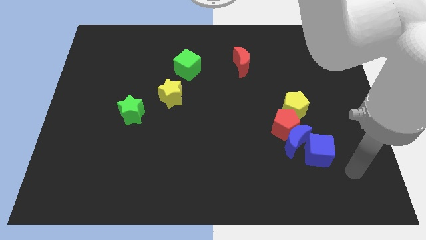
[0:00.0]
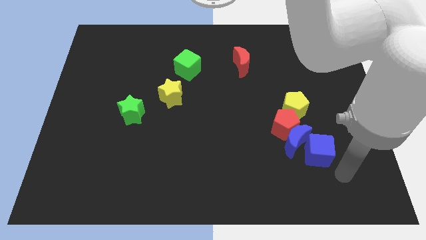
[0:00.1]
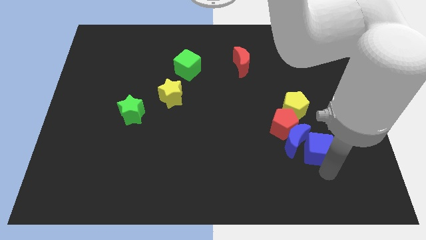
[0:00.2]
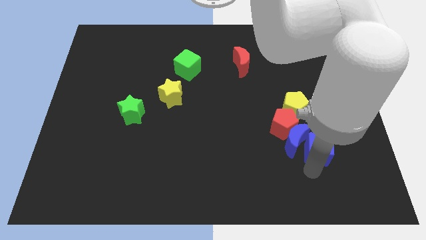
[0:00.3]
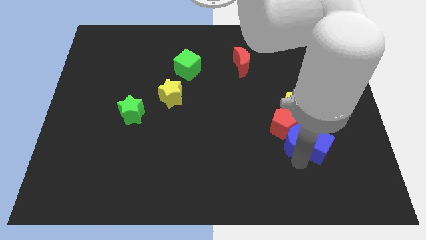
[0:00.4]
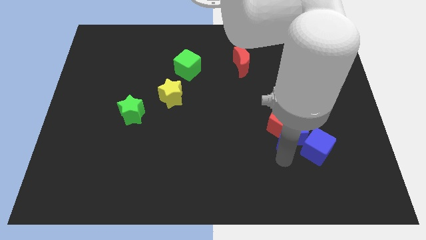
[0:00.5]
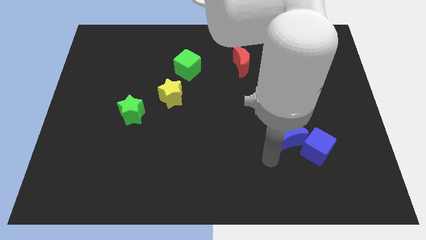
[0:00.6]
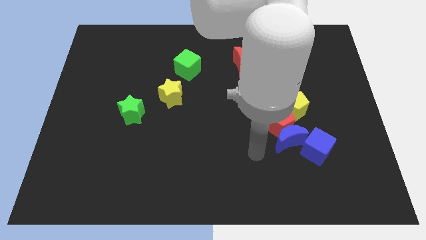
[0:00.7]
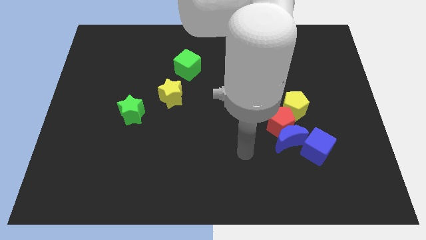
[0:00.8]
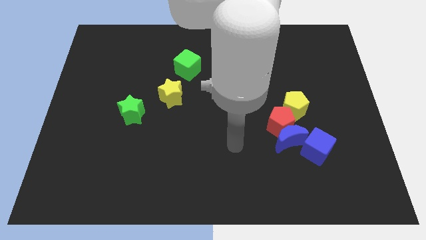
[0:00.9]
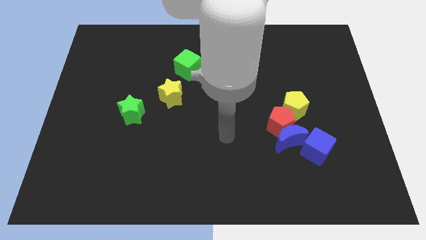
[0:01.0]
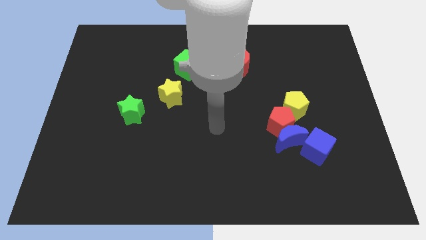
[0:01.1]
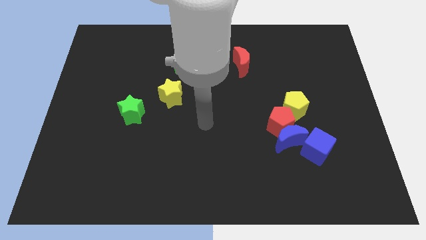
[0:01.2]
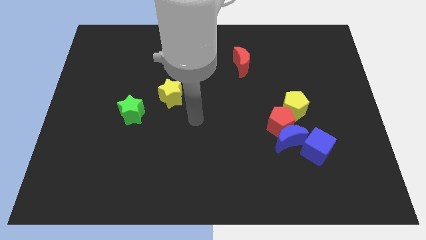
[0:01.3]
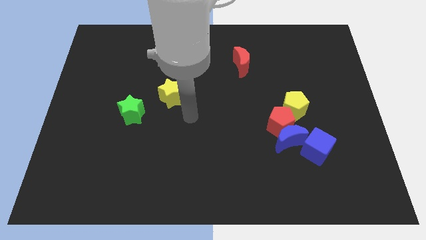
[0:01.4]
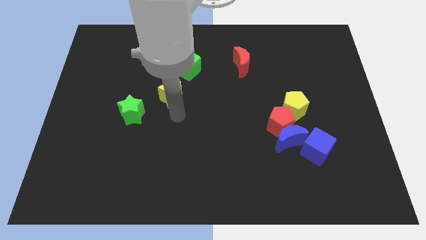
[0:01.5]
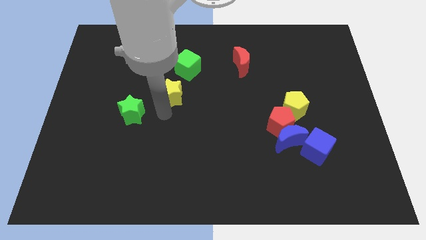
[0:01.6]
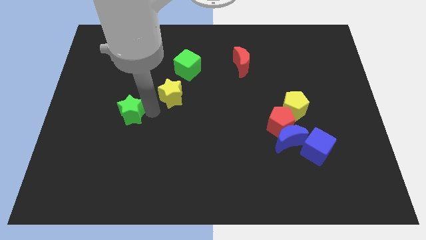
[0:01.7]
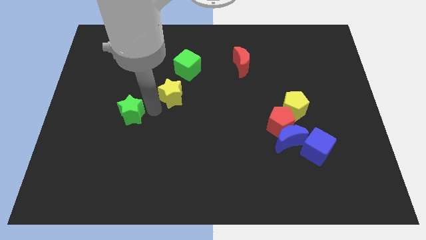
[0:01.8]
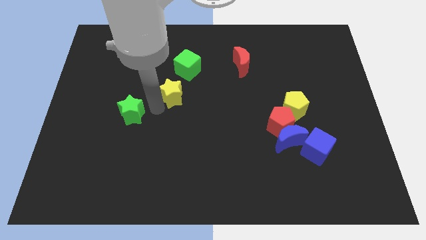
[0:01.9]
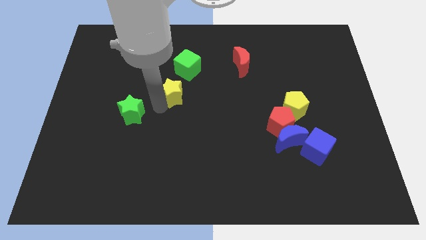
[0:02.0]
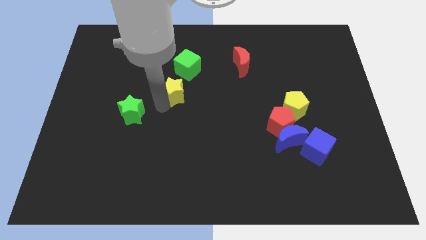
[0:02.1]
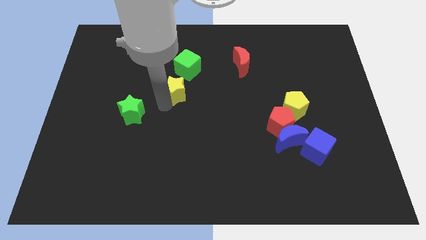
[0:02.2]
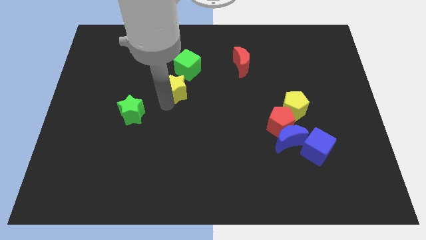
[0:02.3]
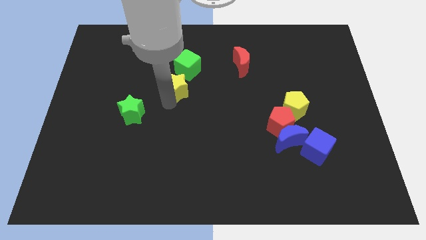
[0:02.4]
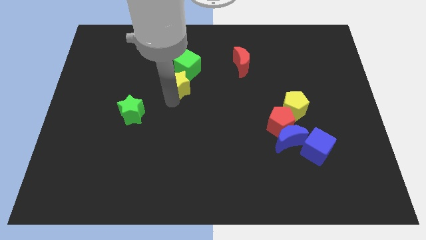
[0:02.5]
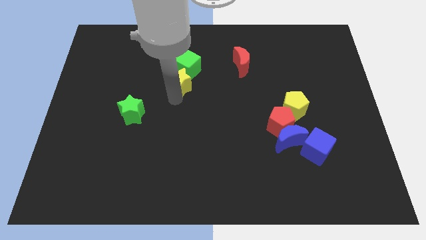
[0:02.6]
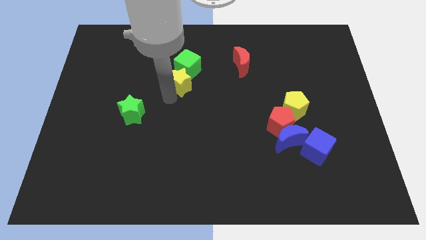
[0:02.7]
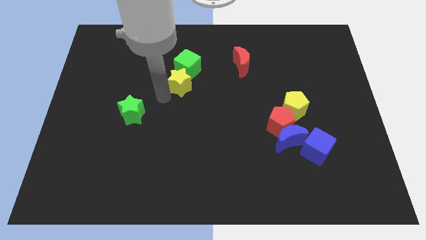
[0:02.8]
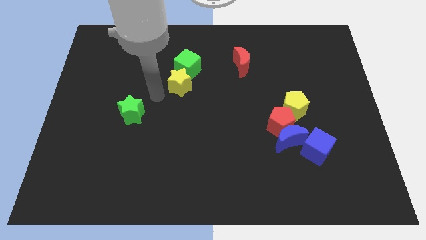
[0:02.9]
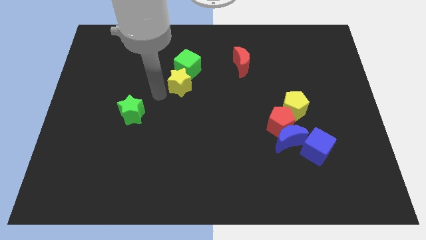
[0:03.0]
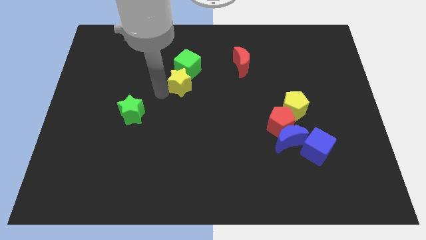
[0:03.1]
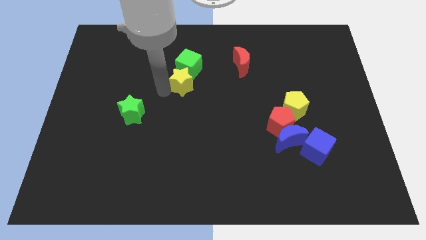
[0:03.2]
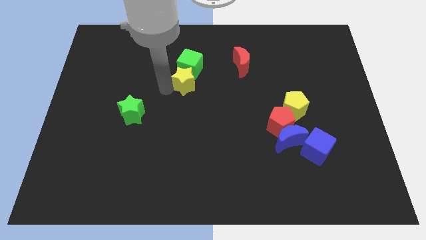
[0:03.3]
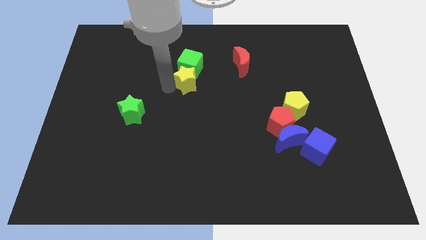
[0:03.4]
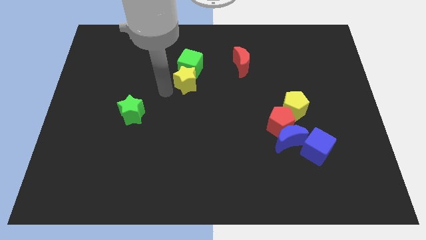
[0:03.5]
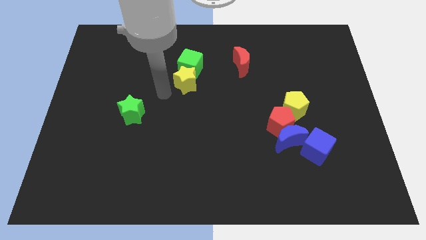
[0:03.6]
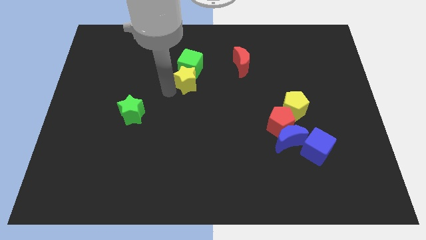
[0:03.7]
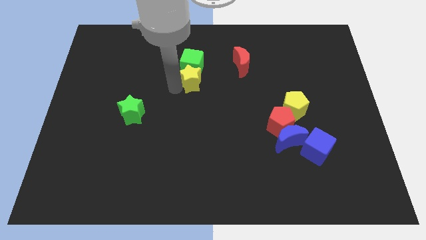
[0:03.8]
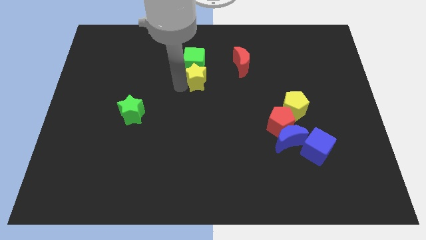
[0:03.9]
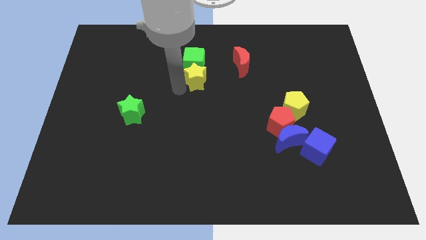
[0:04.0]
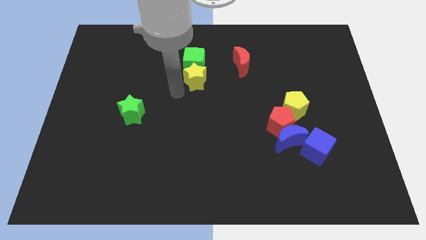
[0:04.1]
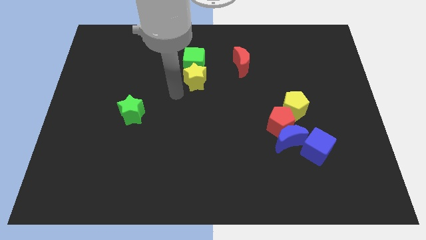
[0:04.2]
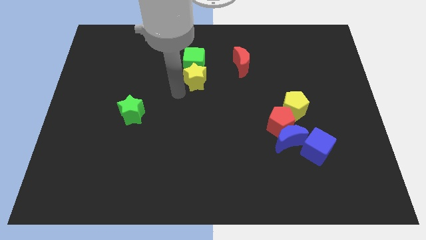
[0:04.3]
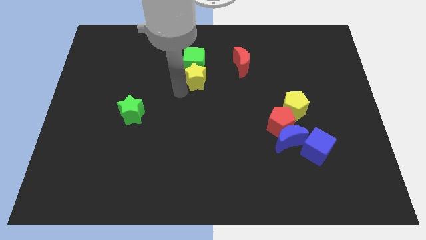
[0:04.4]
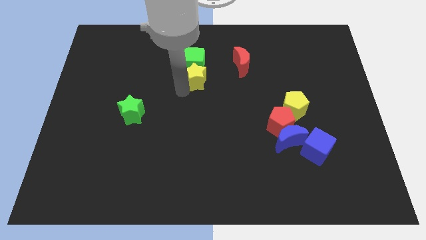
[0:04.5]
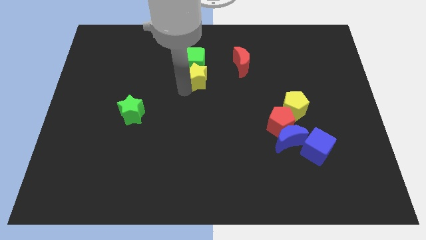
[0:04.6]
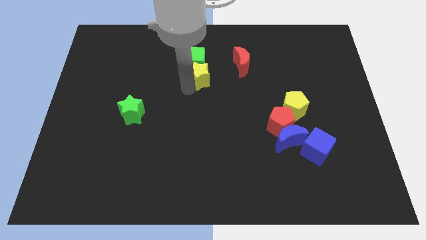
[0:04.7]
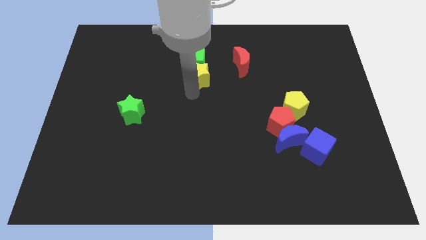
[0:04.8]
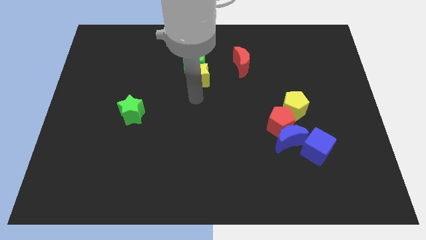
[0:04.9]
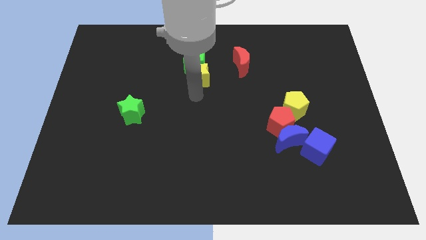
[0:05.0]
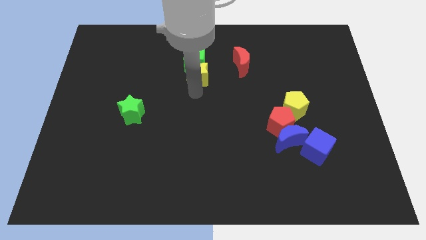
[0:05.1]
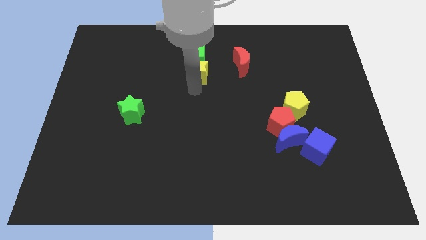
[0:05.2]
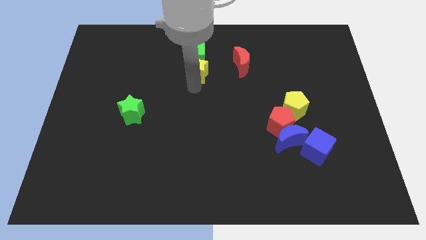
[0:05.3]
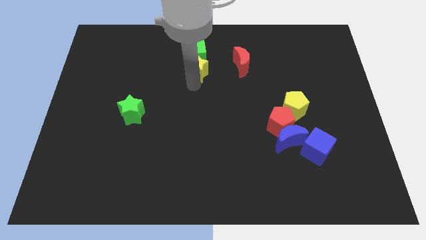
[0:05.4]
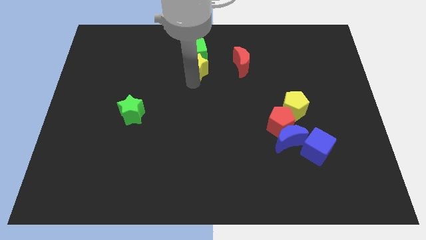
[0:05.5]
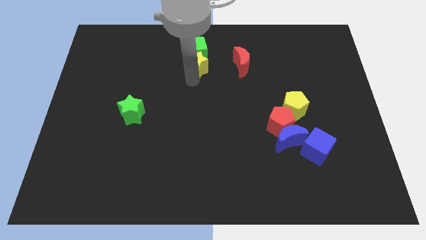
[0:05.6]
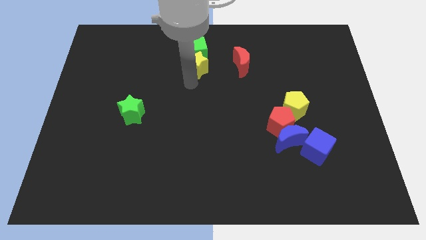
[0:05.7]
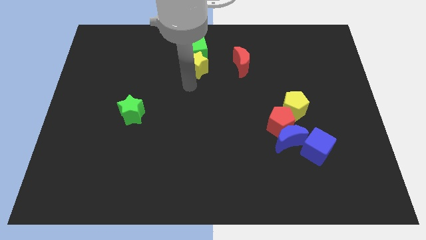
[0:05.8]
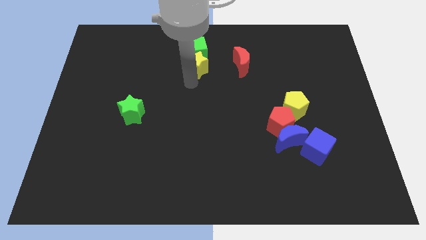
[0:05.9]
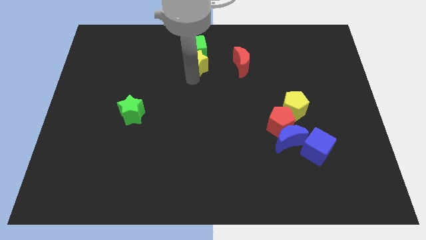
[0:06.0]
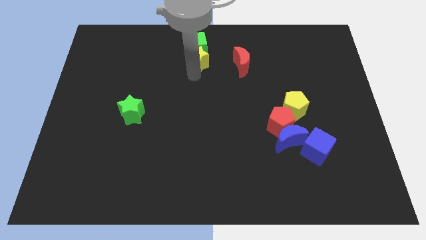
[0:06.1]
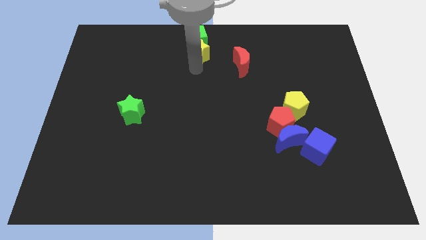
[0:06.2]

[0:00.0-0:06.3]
push the yellow star to the towards your base
